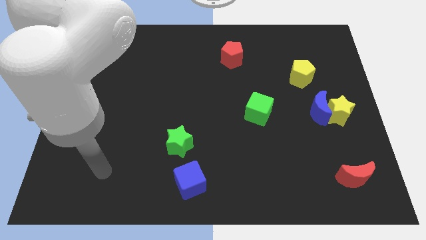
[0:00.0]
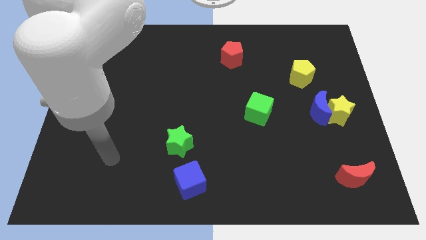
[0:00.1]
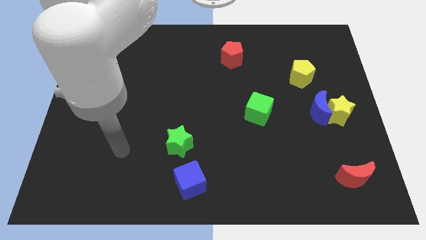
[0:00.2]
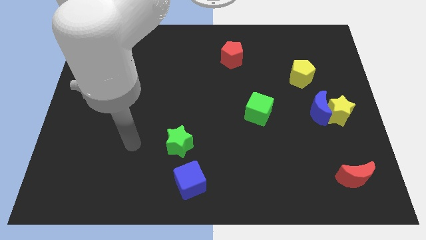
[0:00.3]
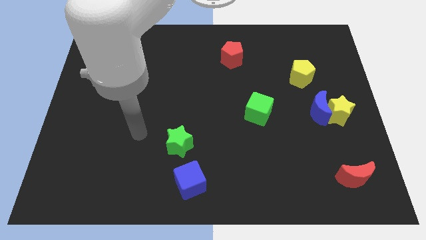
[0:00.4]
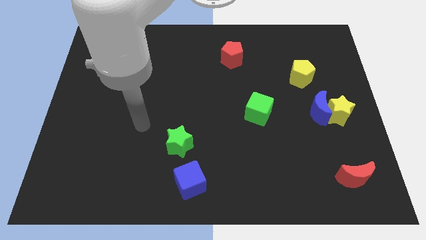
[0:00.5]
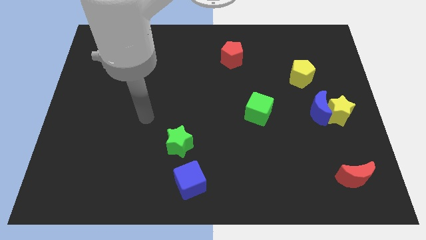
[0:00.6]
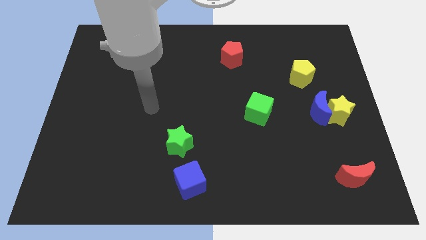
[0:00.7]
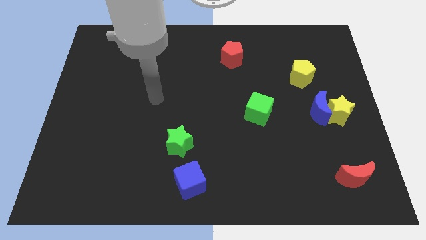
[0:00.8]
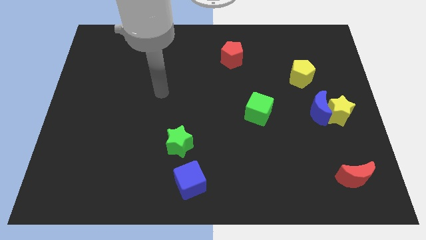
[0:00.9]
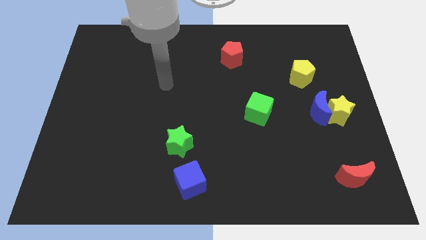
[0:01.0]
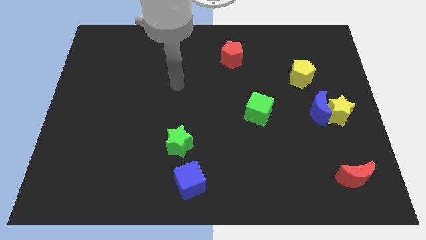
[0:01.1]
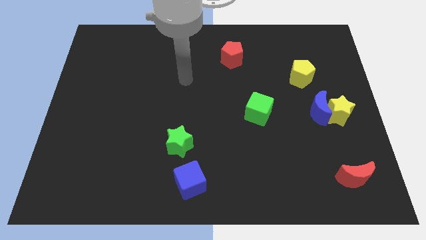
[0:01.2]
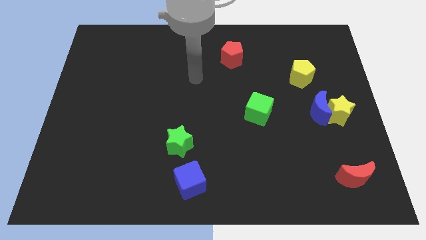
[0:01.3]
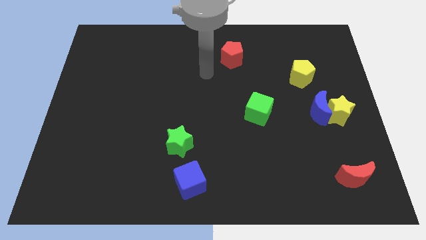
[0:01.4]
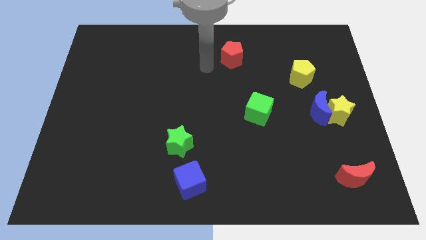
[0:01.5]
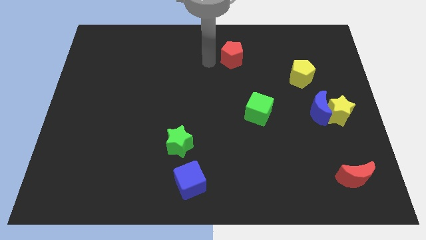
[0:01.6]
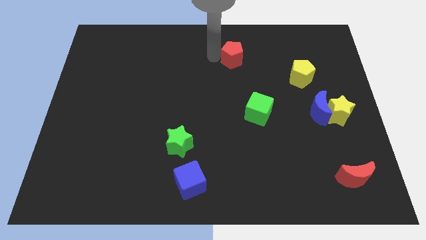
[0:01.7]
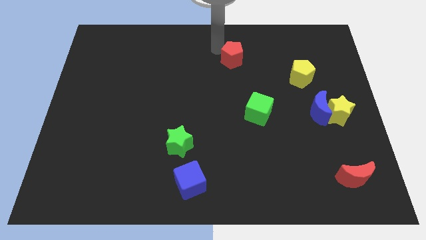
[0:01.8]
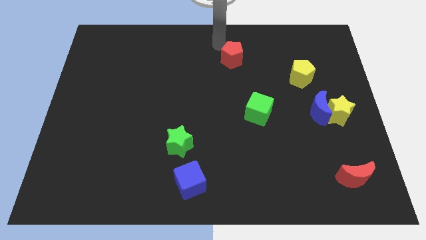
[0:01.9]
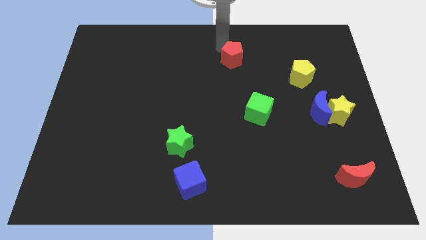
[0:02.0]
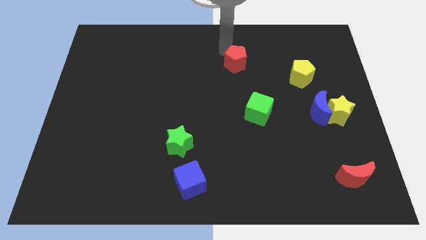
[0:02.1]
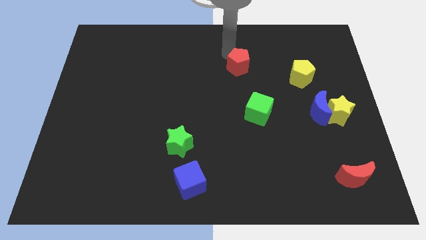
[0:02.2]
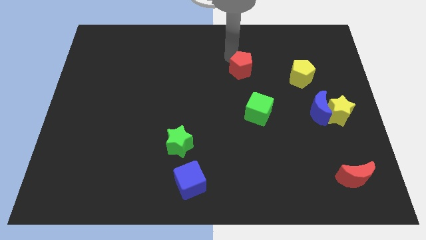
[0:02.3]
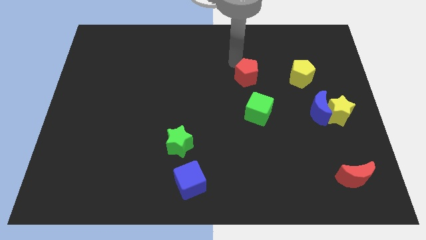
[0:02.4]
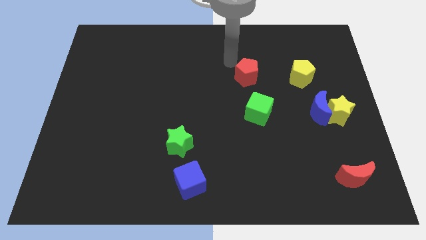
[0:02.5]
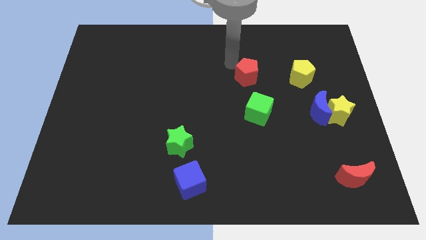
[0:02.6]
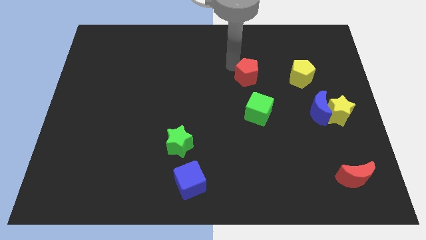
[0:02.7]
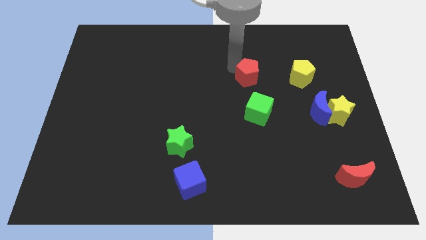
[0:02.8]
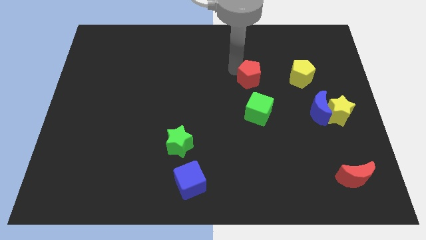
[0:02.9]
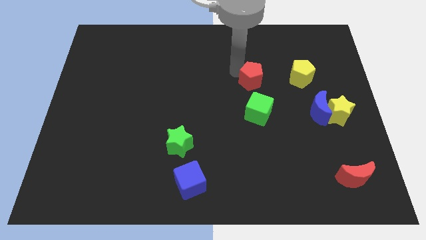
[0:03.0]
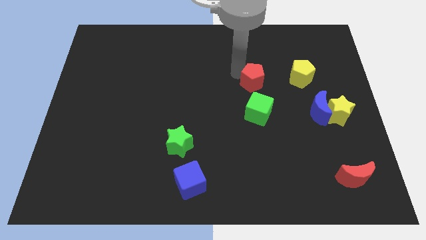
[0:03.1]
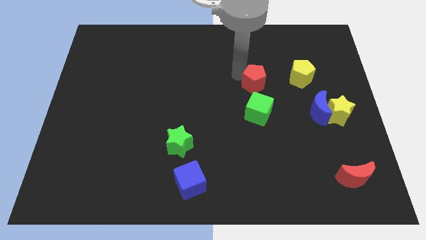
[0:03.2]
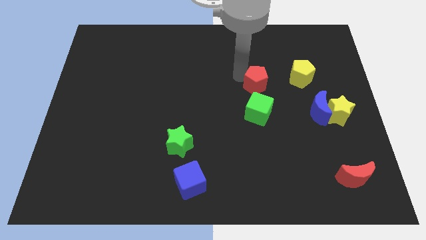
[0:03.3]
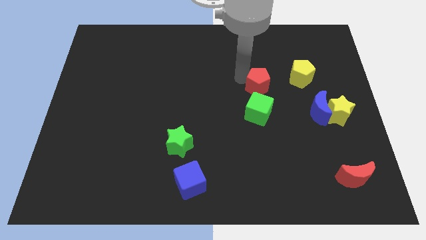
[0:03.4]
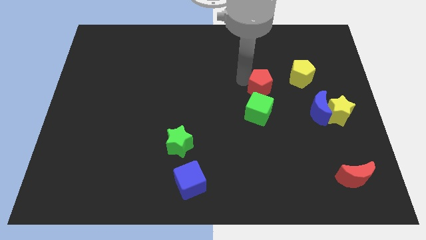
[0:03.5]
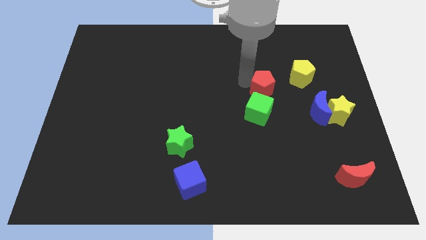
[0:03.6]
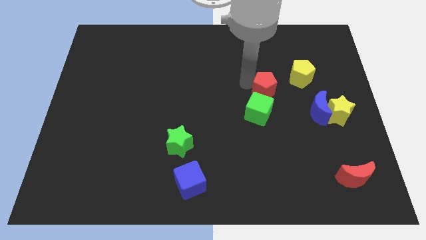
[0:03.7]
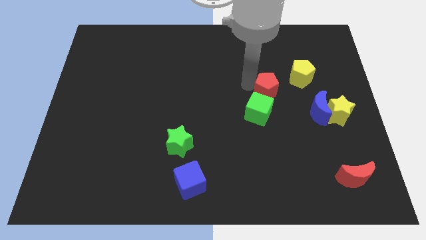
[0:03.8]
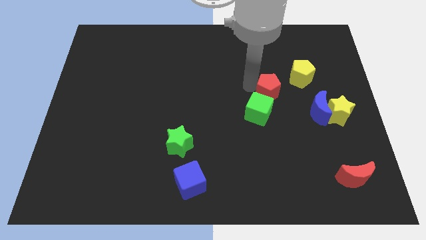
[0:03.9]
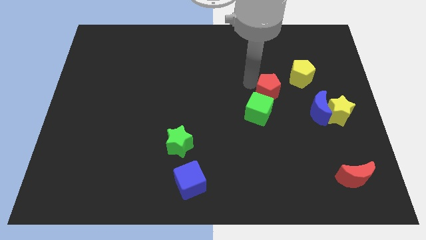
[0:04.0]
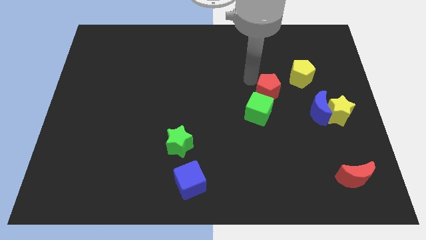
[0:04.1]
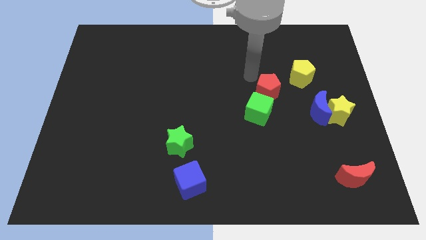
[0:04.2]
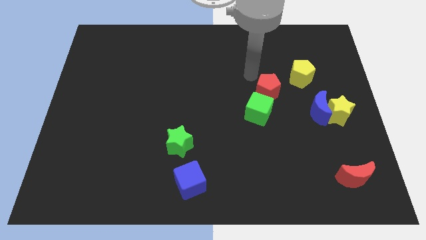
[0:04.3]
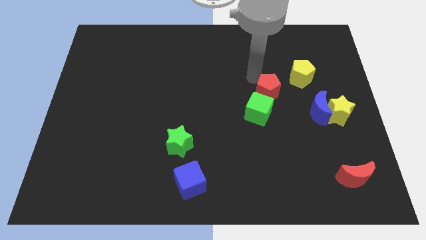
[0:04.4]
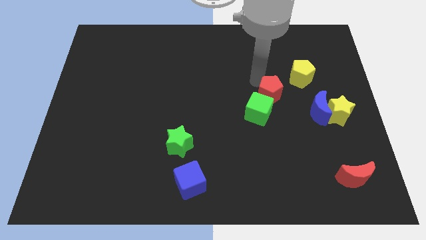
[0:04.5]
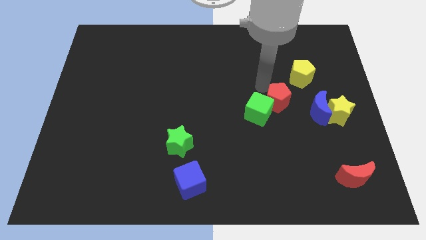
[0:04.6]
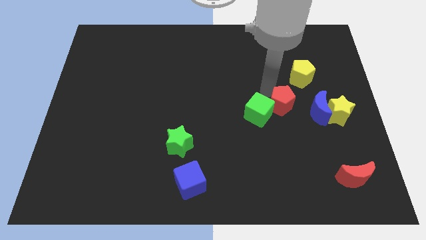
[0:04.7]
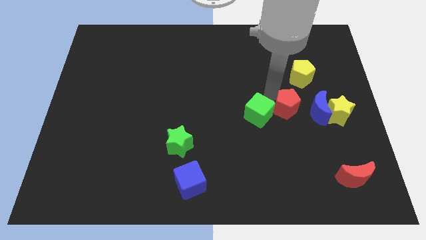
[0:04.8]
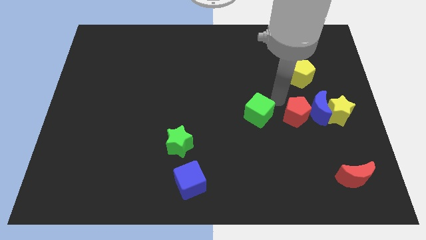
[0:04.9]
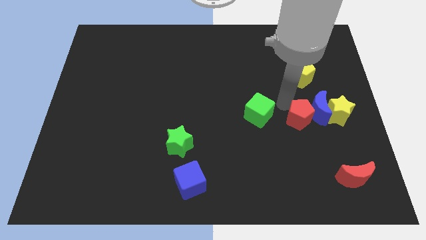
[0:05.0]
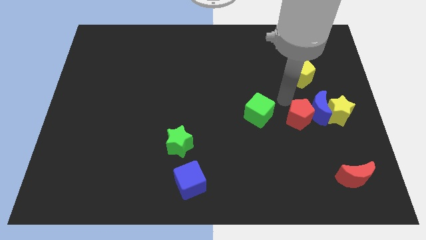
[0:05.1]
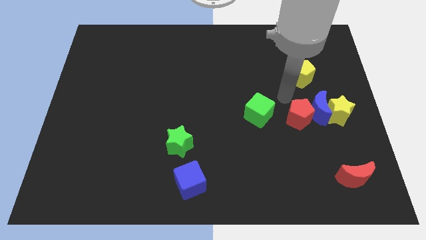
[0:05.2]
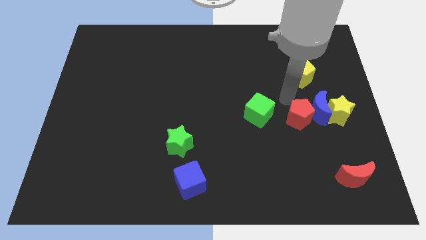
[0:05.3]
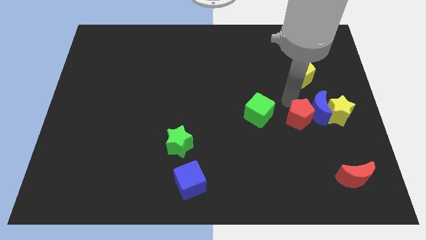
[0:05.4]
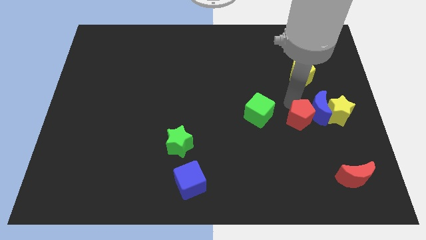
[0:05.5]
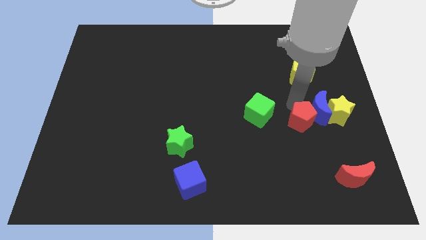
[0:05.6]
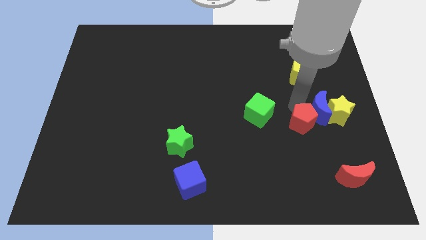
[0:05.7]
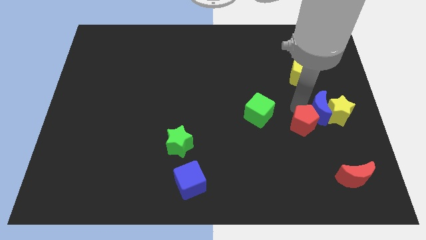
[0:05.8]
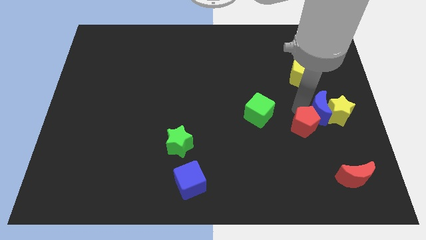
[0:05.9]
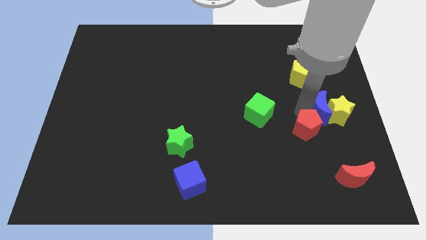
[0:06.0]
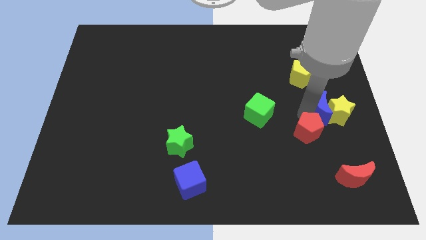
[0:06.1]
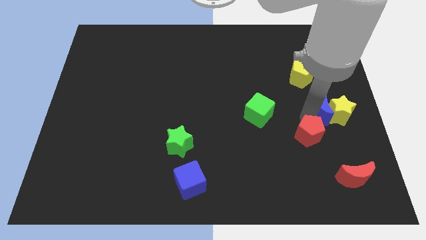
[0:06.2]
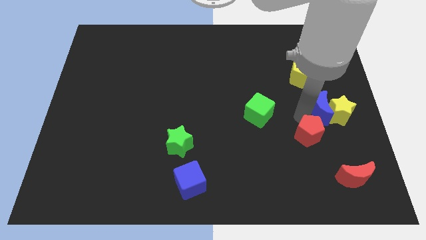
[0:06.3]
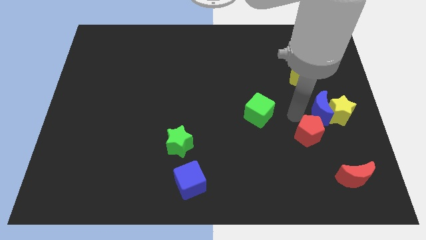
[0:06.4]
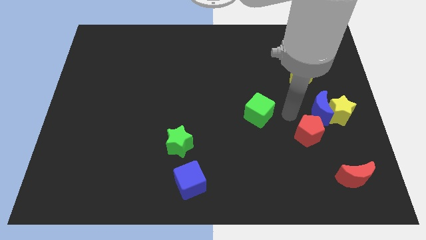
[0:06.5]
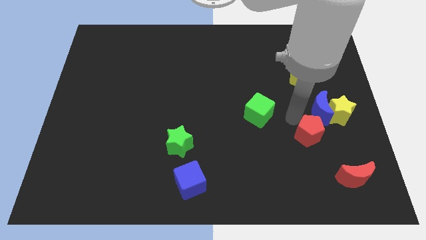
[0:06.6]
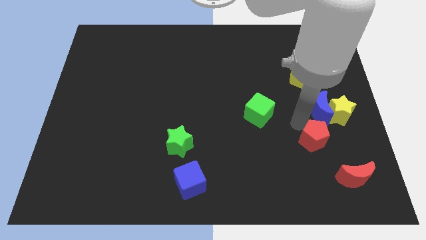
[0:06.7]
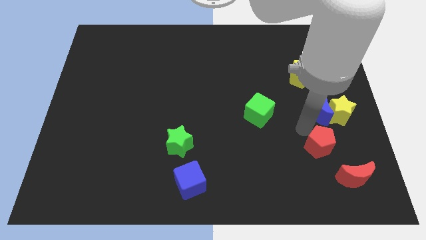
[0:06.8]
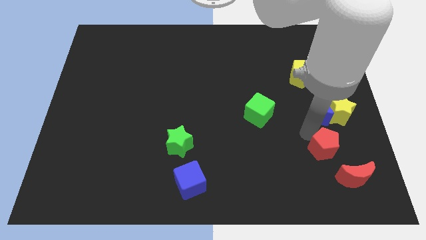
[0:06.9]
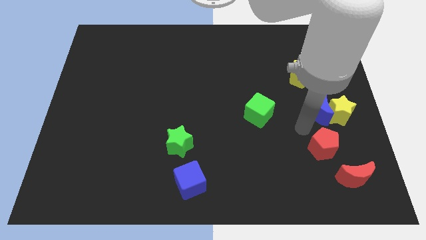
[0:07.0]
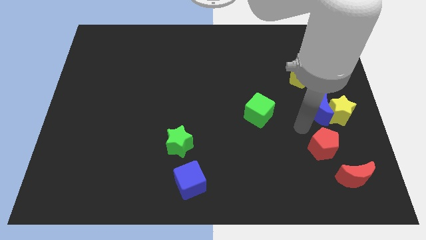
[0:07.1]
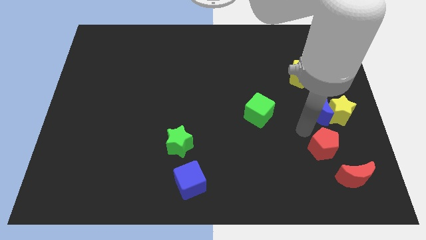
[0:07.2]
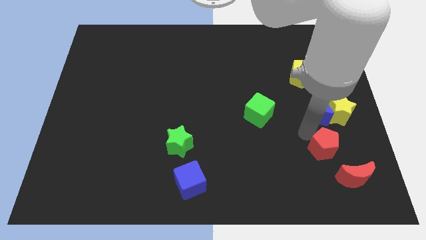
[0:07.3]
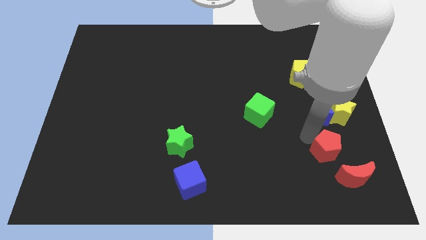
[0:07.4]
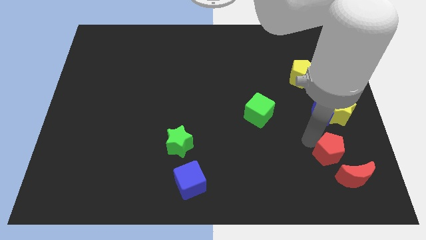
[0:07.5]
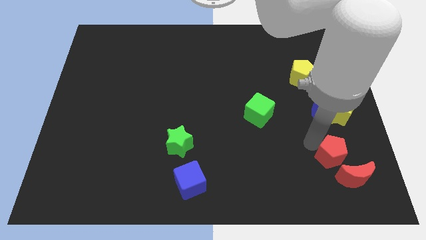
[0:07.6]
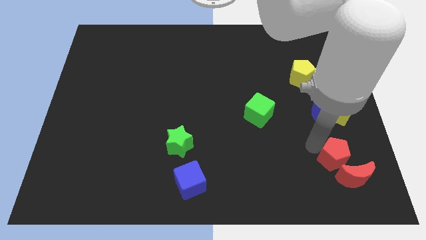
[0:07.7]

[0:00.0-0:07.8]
slide the red pentagon close to the red moon
